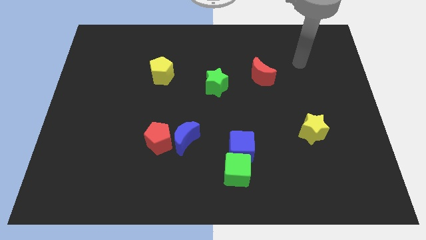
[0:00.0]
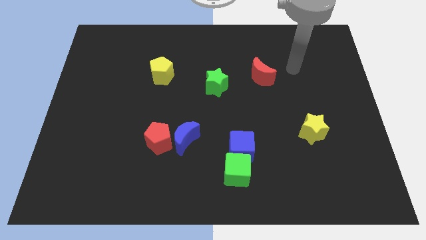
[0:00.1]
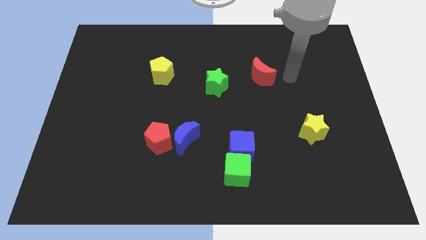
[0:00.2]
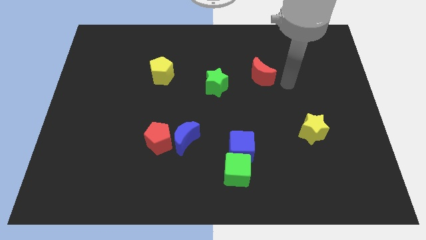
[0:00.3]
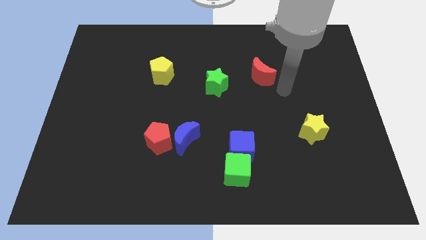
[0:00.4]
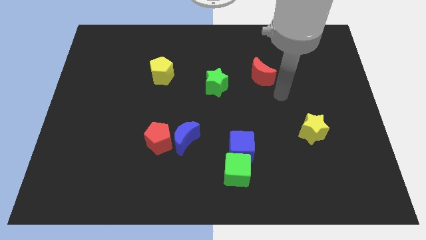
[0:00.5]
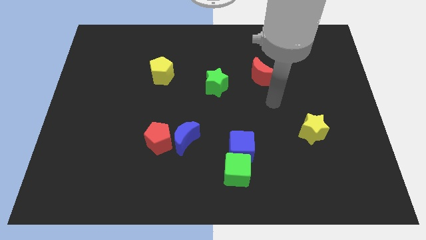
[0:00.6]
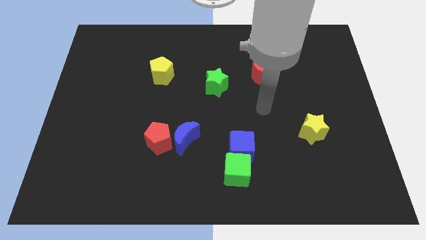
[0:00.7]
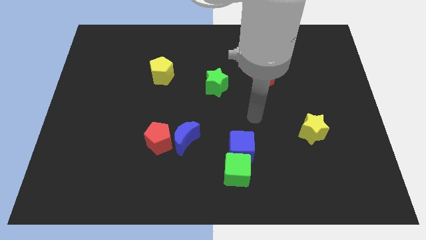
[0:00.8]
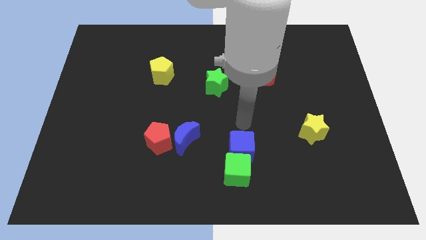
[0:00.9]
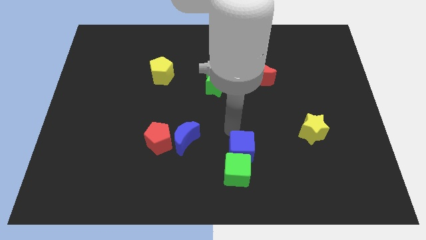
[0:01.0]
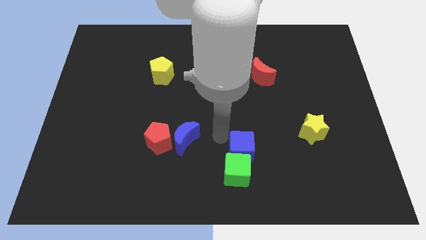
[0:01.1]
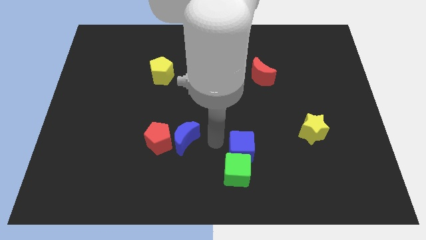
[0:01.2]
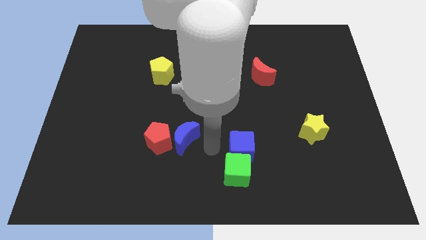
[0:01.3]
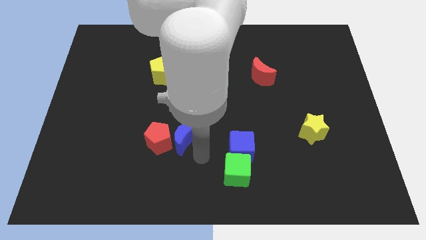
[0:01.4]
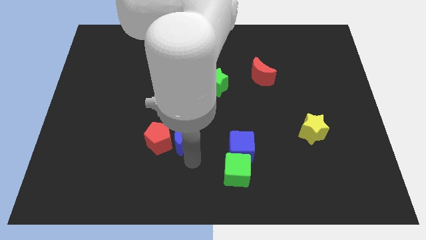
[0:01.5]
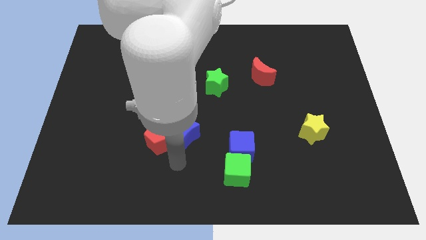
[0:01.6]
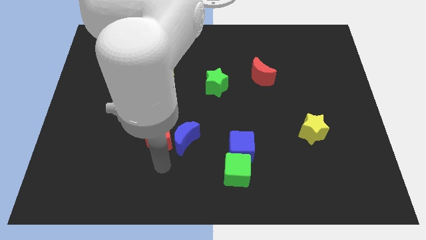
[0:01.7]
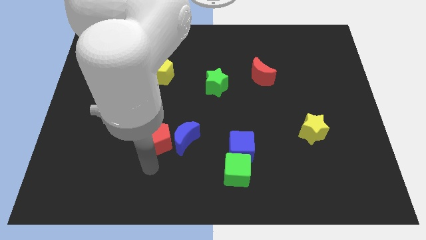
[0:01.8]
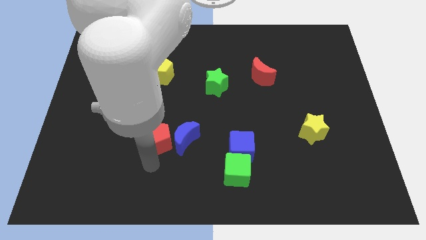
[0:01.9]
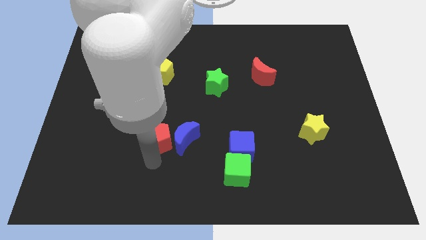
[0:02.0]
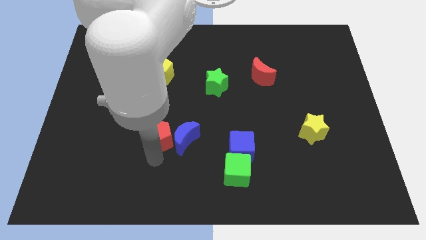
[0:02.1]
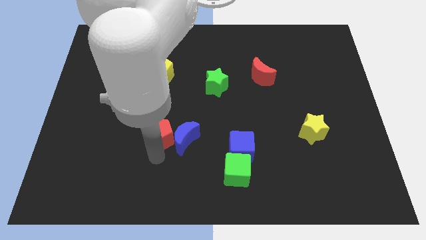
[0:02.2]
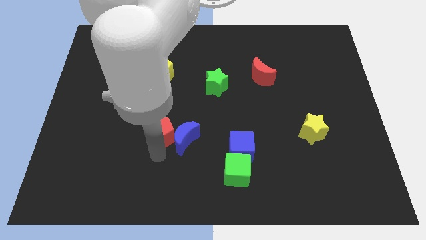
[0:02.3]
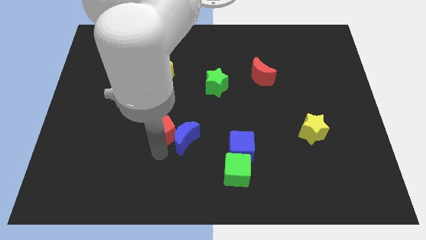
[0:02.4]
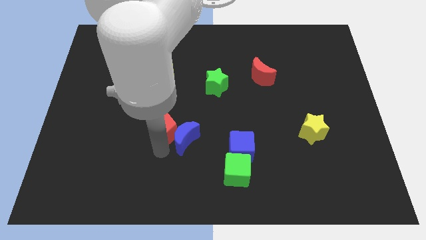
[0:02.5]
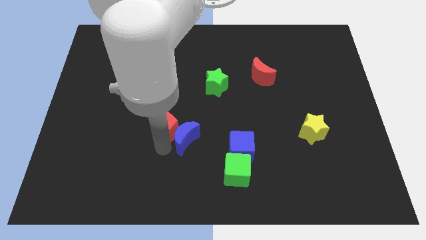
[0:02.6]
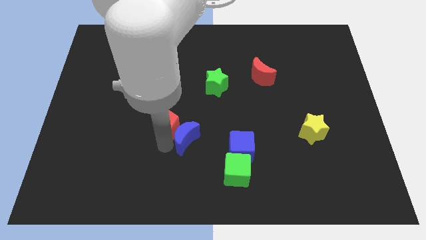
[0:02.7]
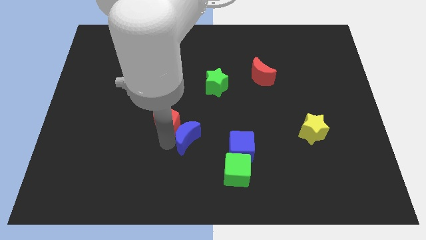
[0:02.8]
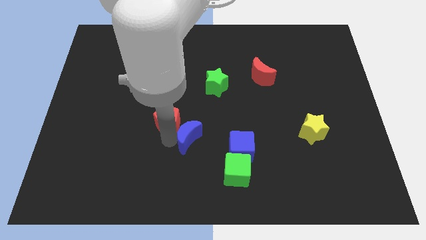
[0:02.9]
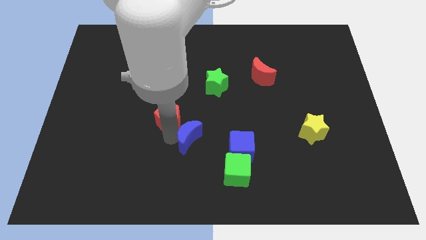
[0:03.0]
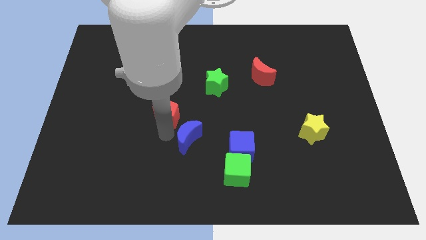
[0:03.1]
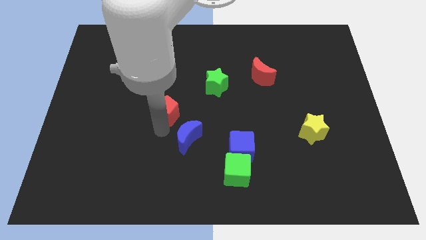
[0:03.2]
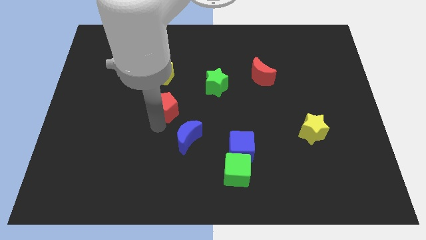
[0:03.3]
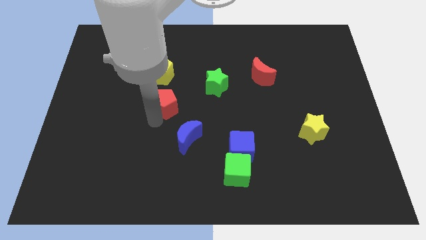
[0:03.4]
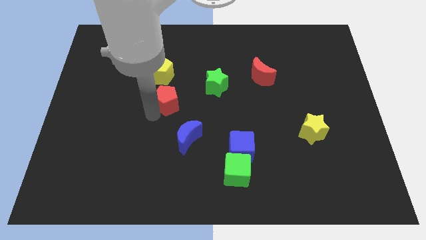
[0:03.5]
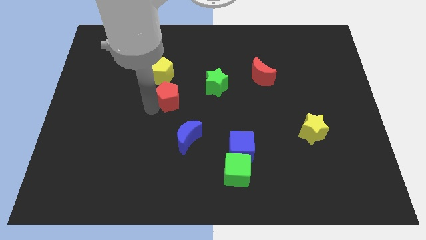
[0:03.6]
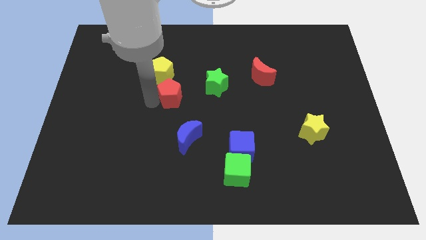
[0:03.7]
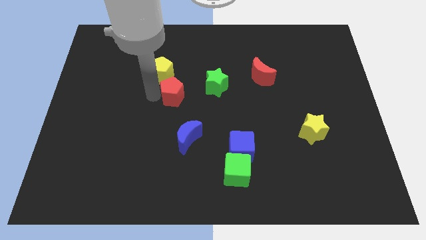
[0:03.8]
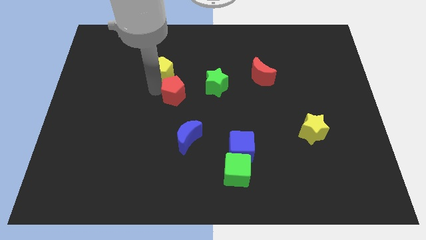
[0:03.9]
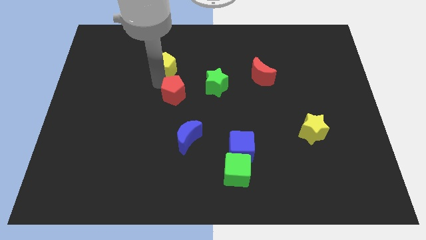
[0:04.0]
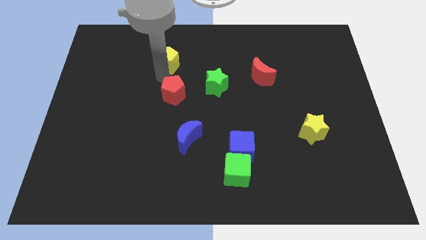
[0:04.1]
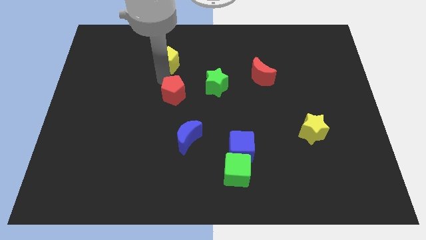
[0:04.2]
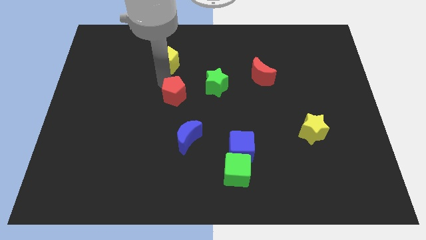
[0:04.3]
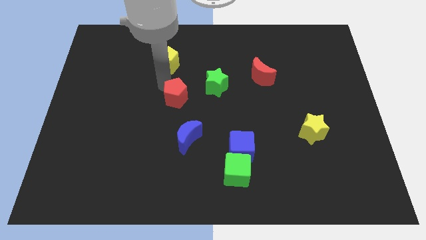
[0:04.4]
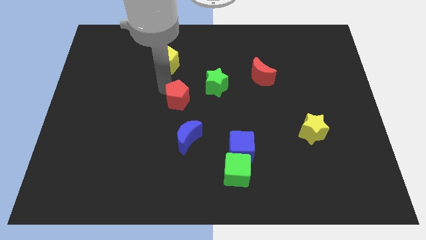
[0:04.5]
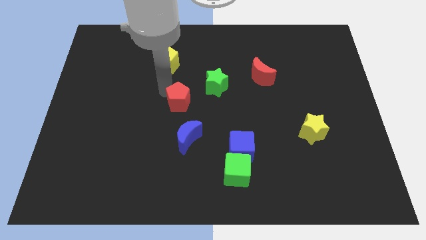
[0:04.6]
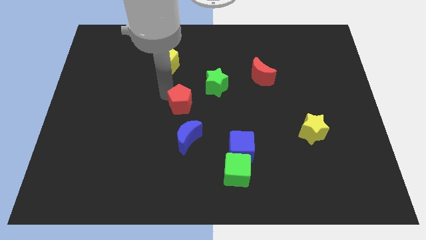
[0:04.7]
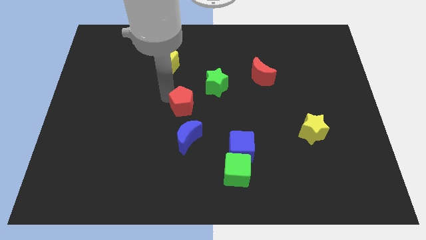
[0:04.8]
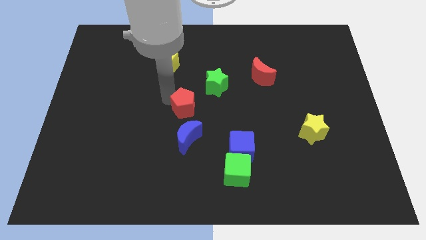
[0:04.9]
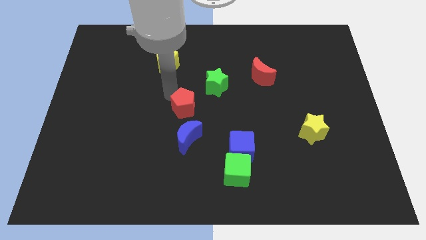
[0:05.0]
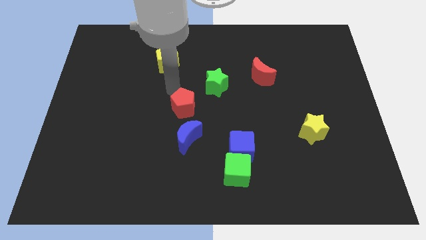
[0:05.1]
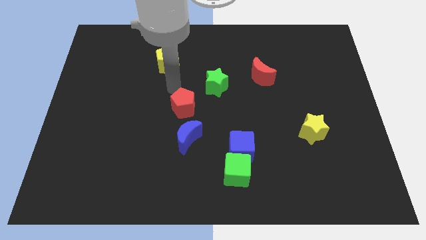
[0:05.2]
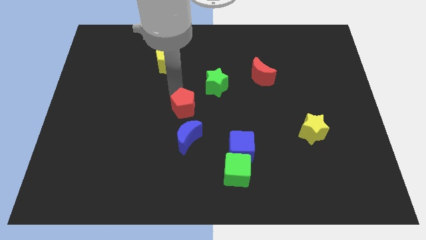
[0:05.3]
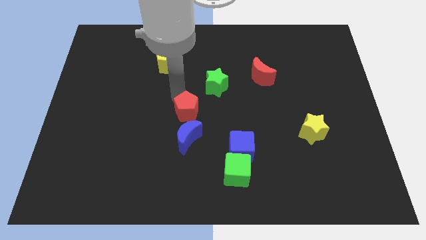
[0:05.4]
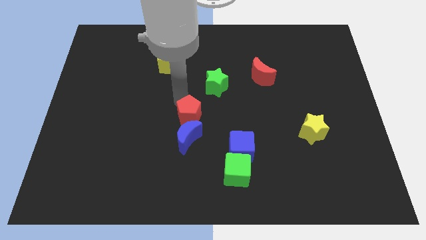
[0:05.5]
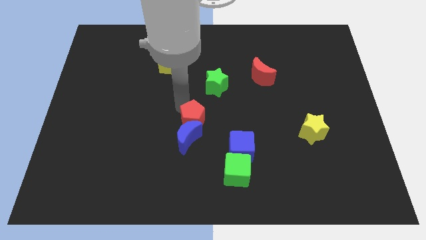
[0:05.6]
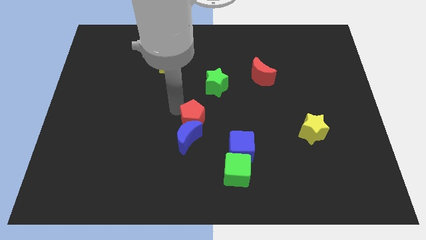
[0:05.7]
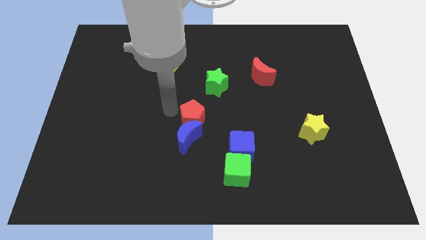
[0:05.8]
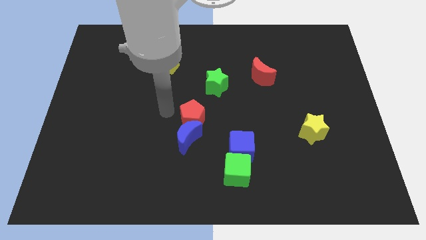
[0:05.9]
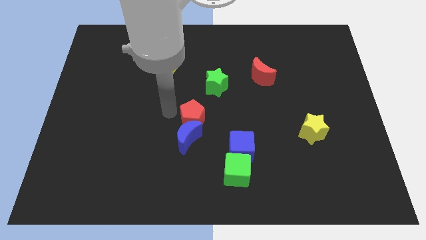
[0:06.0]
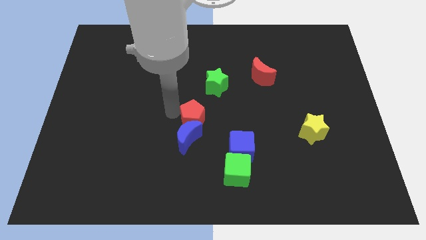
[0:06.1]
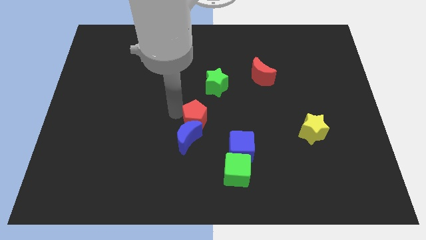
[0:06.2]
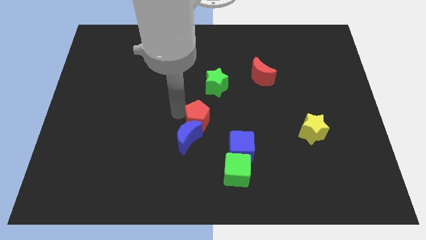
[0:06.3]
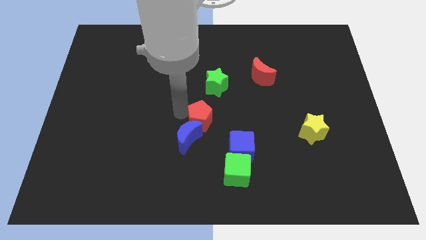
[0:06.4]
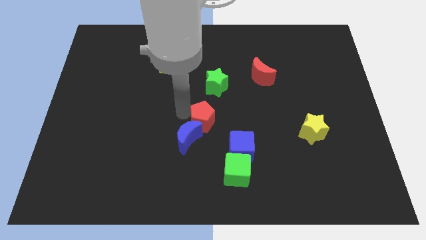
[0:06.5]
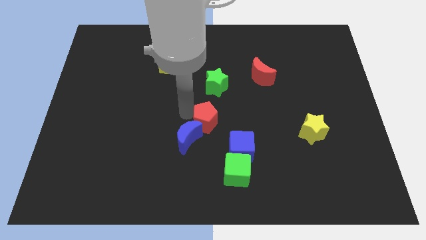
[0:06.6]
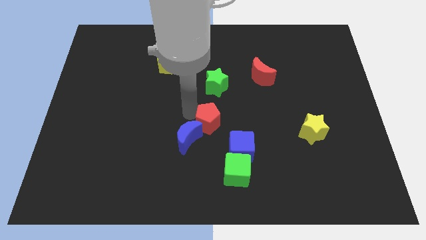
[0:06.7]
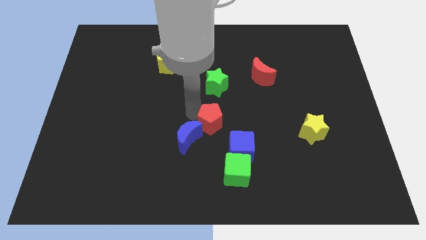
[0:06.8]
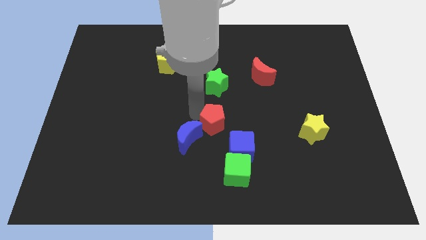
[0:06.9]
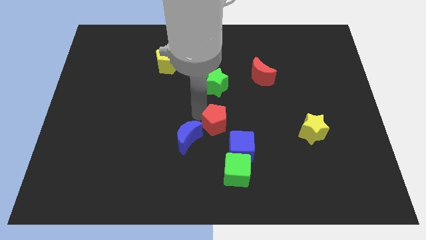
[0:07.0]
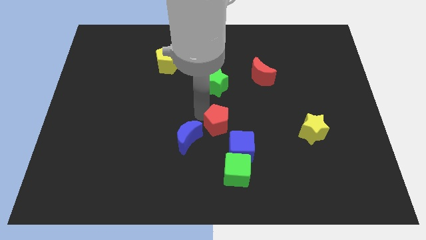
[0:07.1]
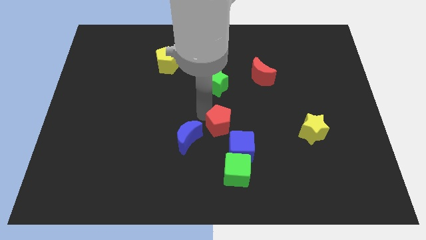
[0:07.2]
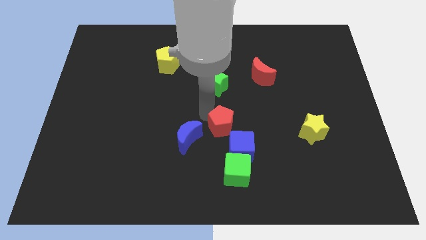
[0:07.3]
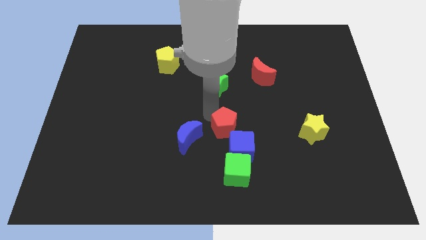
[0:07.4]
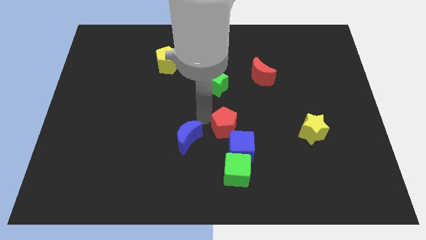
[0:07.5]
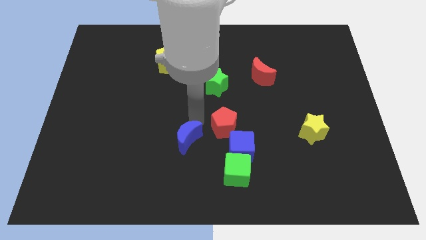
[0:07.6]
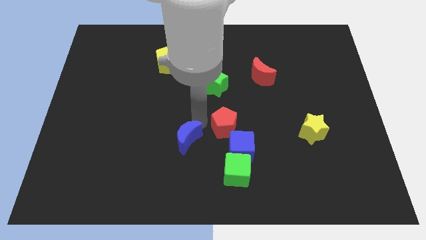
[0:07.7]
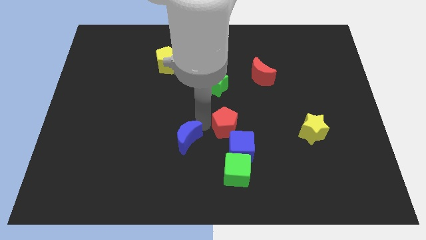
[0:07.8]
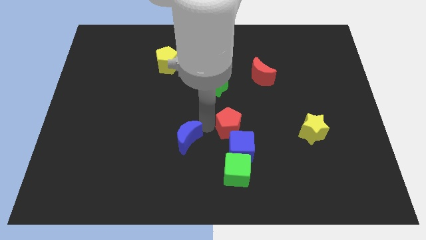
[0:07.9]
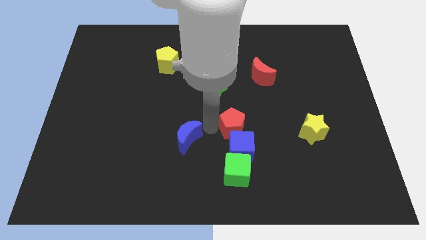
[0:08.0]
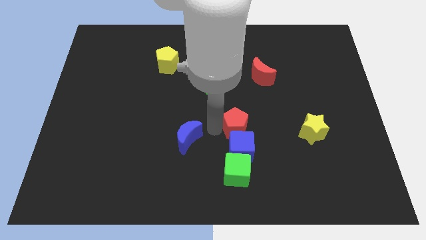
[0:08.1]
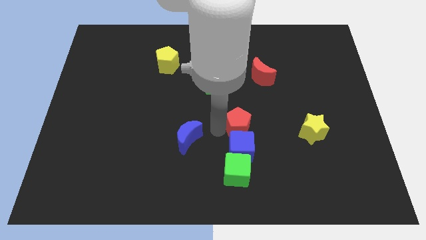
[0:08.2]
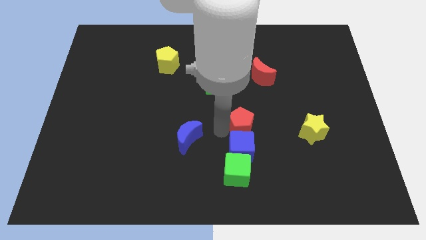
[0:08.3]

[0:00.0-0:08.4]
move the red pentagon to the left of the yellow star
